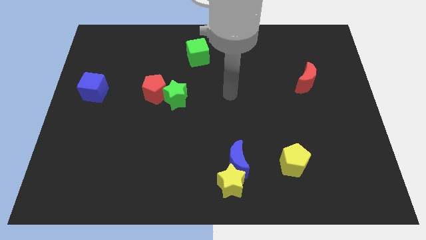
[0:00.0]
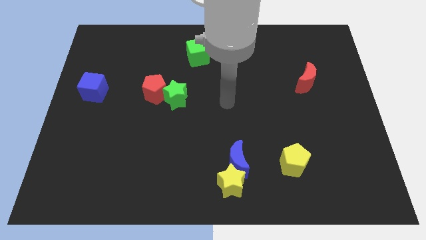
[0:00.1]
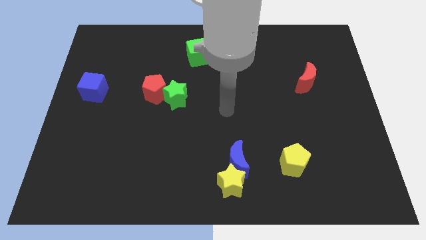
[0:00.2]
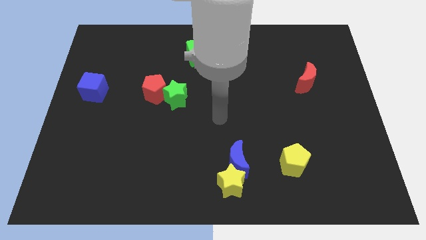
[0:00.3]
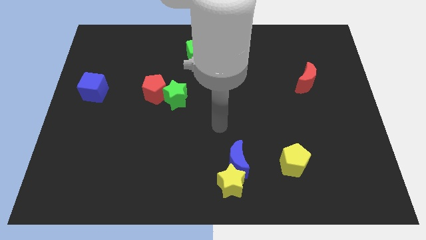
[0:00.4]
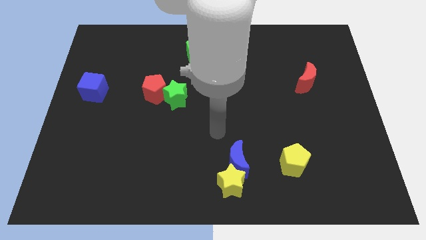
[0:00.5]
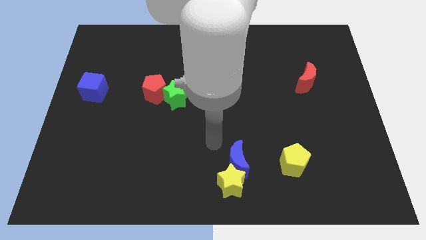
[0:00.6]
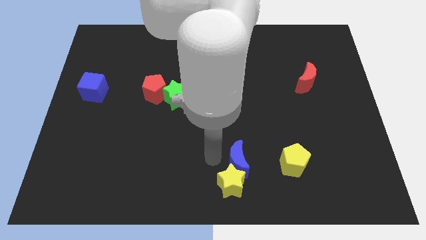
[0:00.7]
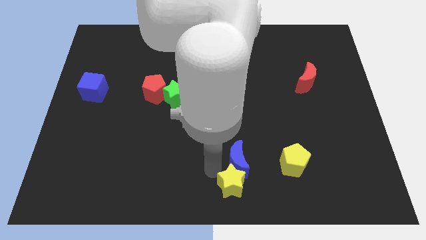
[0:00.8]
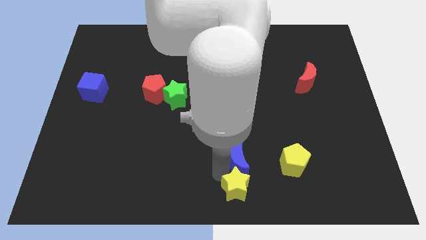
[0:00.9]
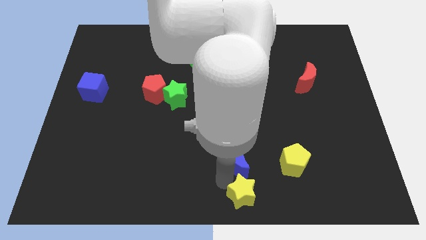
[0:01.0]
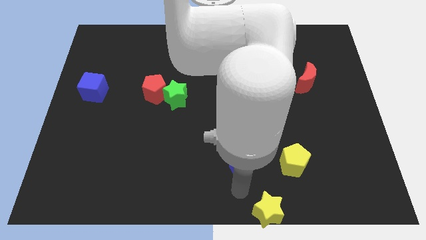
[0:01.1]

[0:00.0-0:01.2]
separate the blue moon from the yellow star

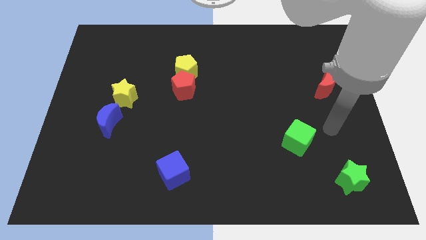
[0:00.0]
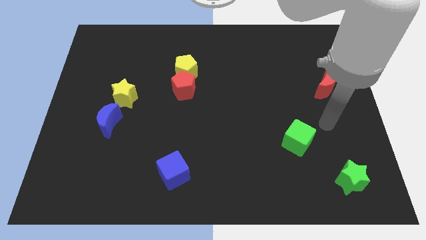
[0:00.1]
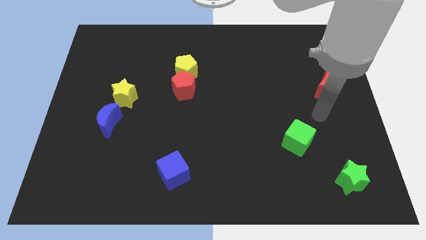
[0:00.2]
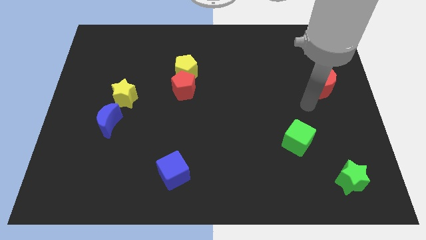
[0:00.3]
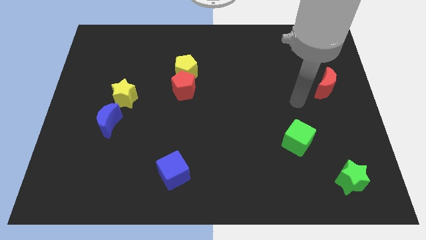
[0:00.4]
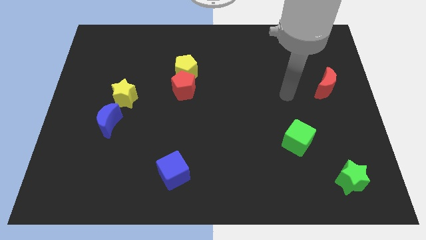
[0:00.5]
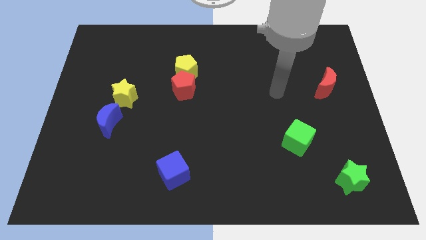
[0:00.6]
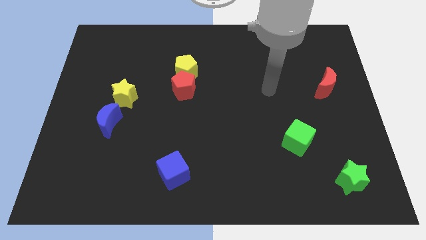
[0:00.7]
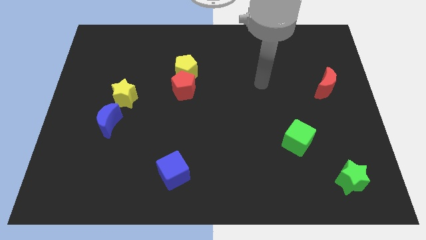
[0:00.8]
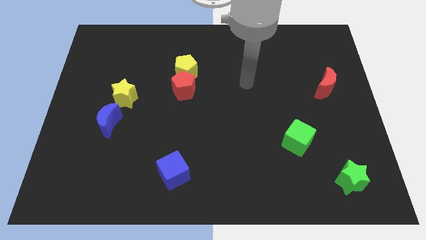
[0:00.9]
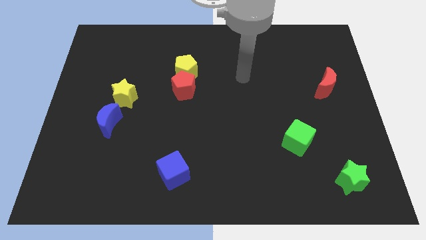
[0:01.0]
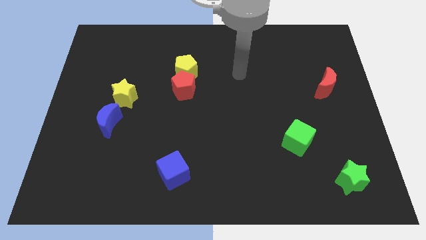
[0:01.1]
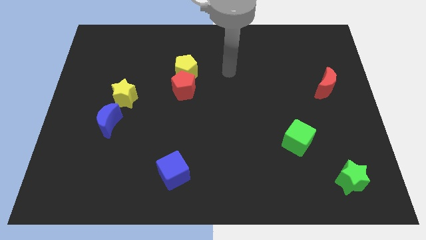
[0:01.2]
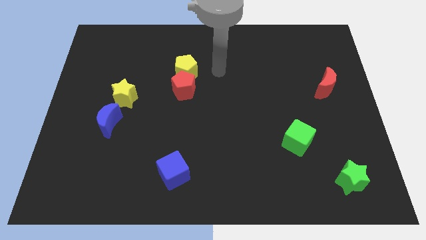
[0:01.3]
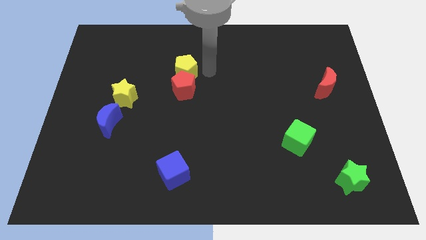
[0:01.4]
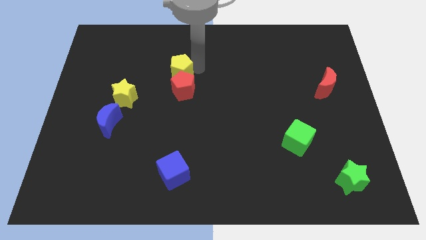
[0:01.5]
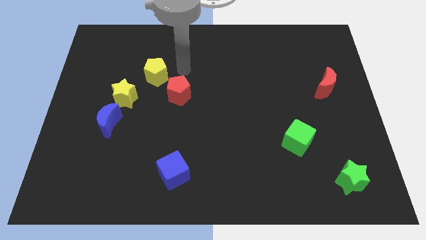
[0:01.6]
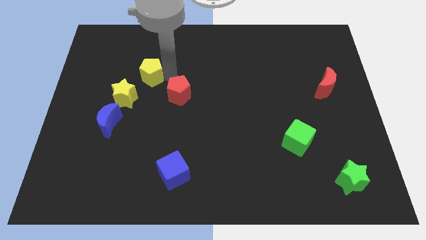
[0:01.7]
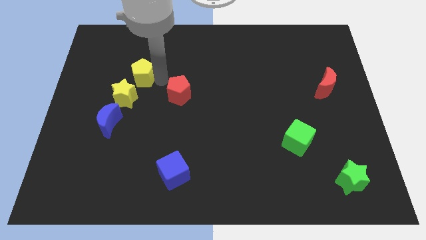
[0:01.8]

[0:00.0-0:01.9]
move the red pentagon away from the yellow pentagon

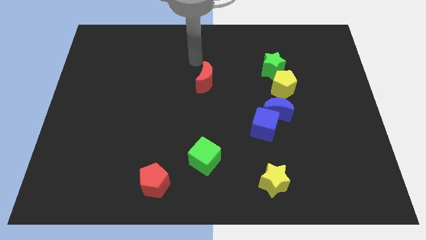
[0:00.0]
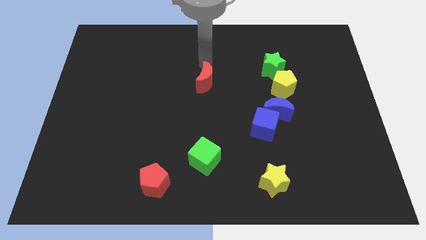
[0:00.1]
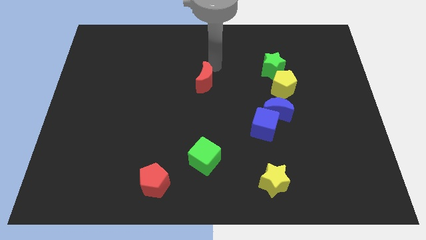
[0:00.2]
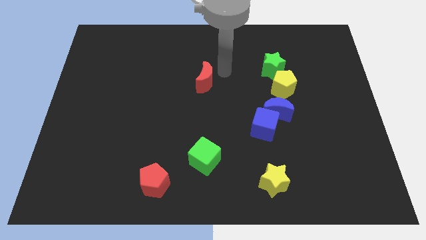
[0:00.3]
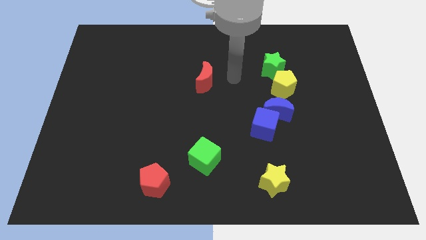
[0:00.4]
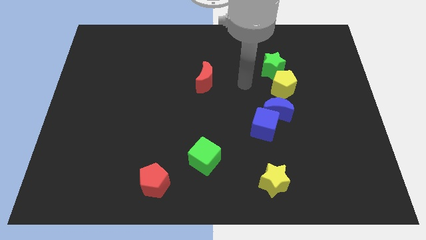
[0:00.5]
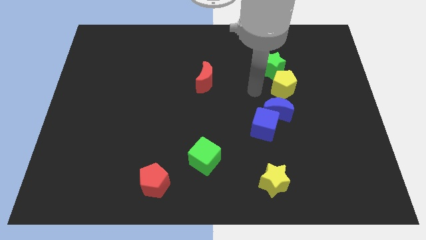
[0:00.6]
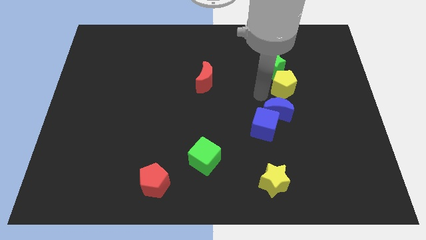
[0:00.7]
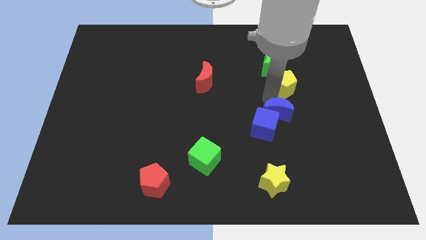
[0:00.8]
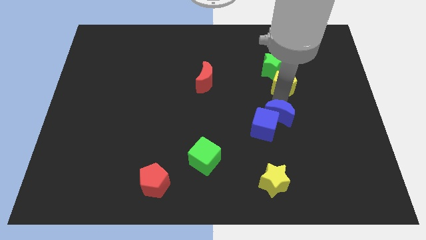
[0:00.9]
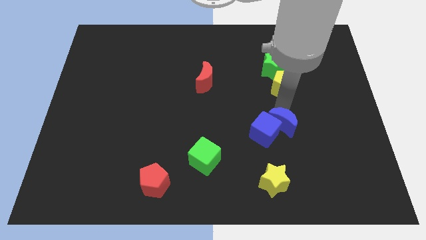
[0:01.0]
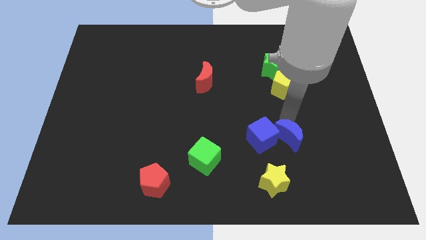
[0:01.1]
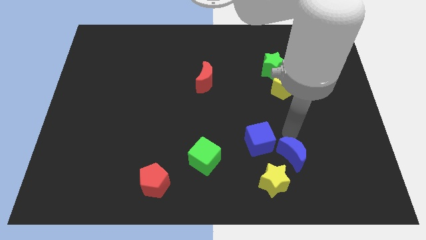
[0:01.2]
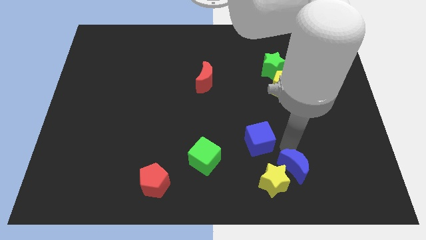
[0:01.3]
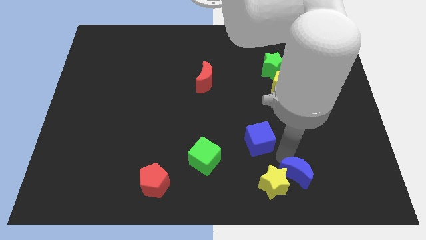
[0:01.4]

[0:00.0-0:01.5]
move the blue cube away from the blue moon

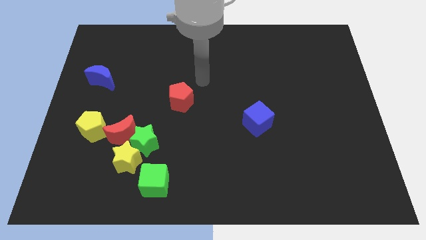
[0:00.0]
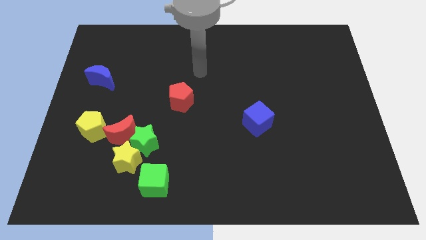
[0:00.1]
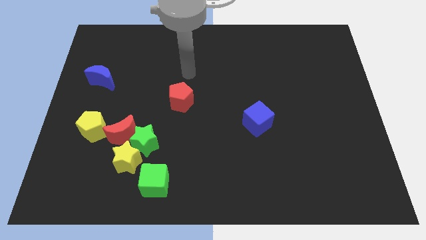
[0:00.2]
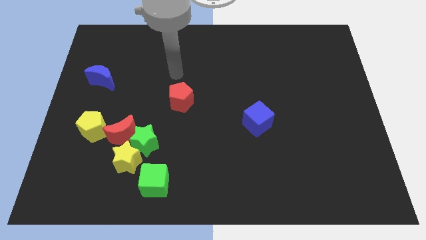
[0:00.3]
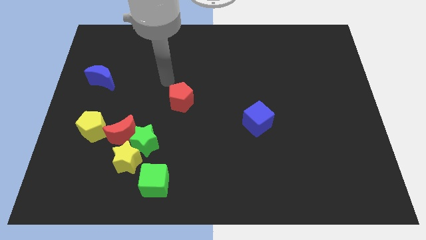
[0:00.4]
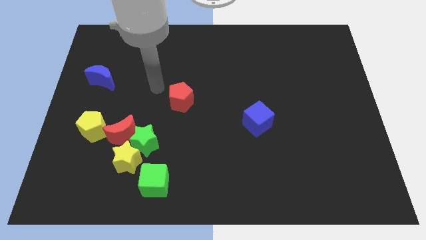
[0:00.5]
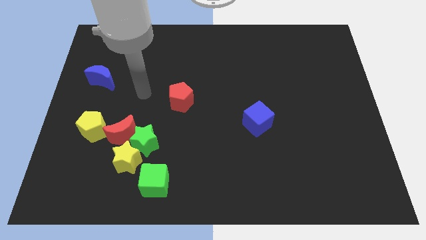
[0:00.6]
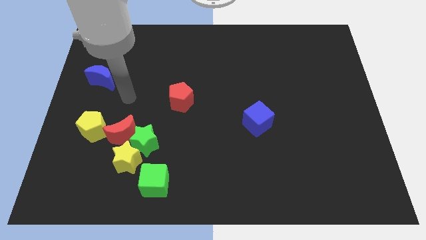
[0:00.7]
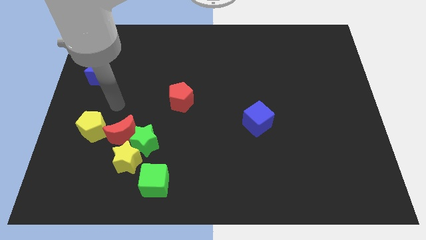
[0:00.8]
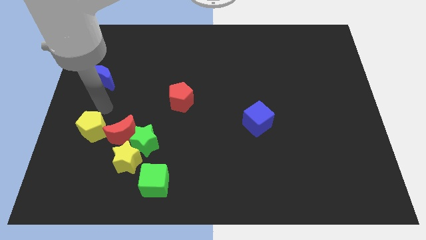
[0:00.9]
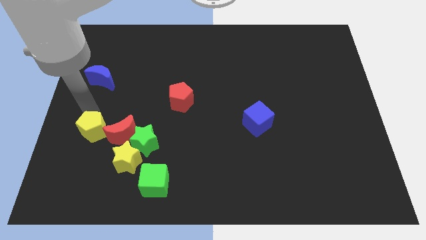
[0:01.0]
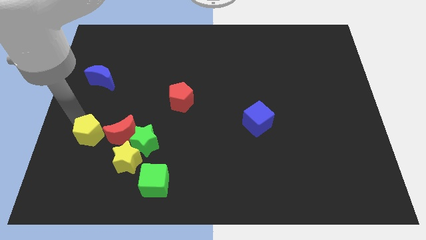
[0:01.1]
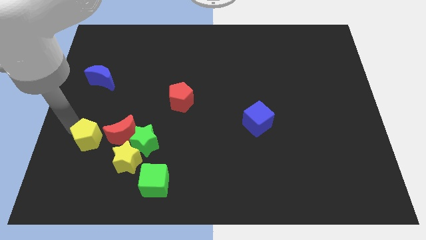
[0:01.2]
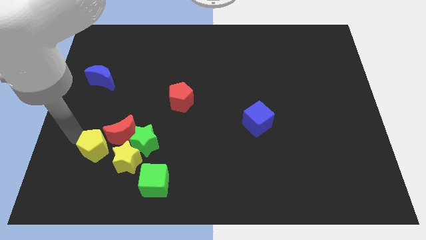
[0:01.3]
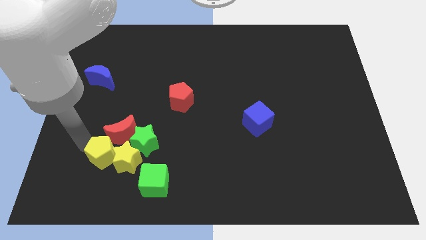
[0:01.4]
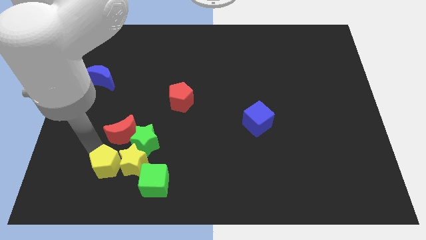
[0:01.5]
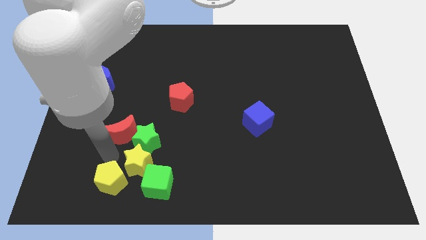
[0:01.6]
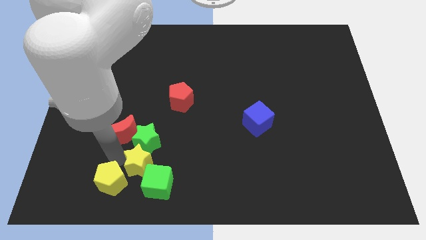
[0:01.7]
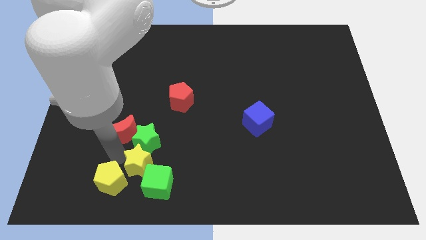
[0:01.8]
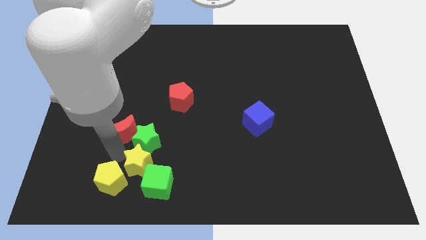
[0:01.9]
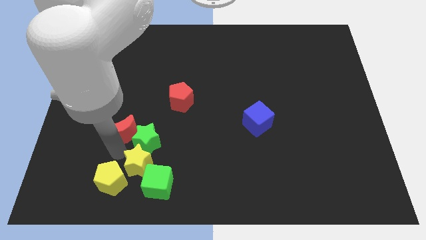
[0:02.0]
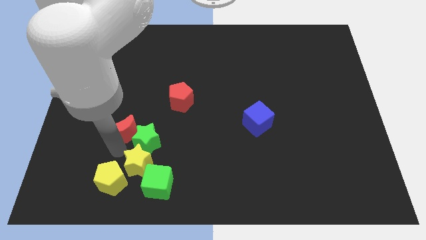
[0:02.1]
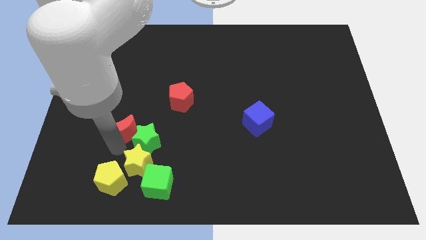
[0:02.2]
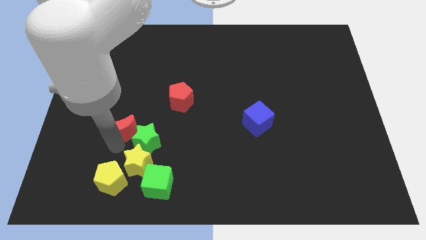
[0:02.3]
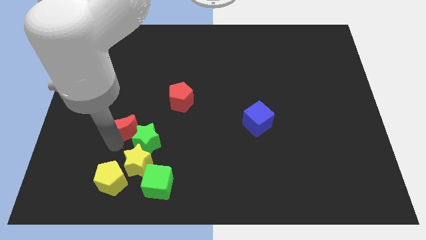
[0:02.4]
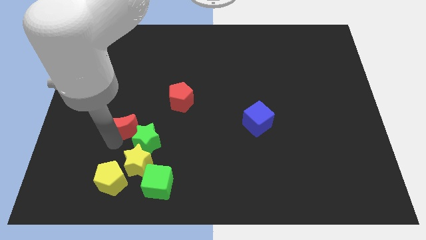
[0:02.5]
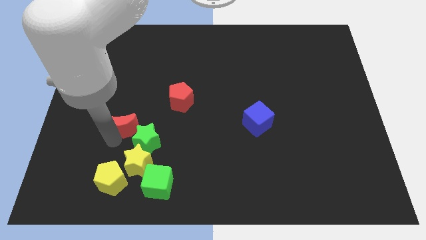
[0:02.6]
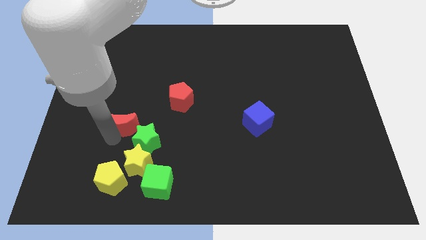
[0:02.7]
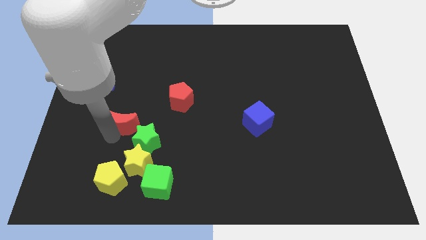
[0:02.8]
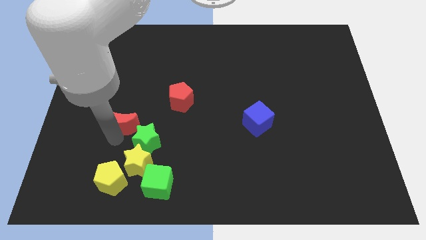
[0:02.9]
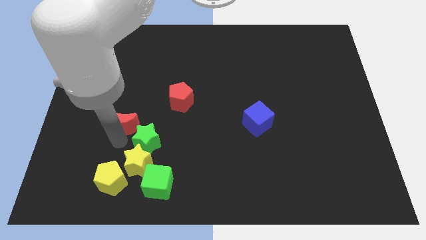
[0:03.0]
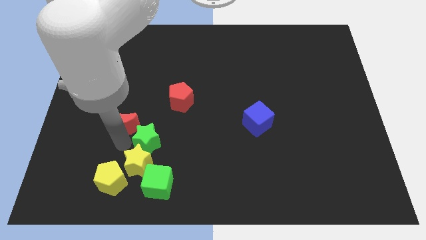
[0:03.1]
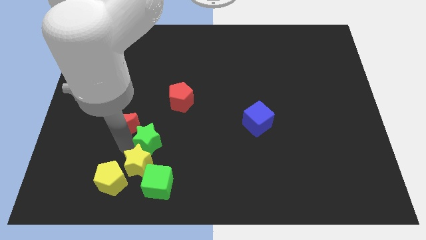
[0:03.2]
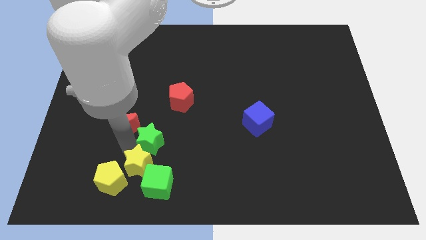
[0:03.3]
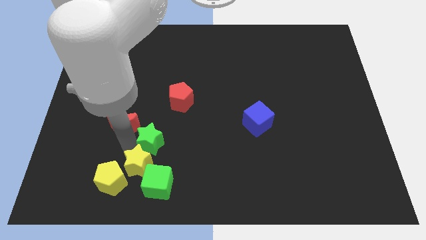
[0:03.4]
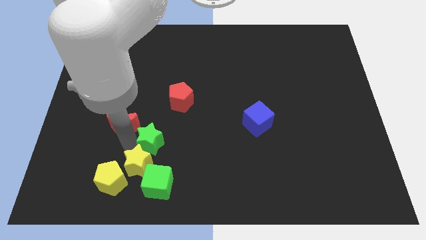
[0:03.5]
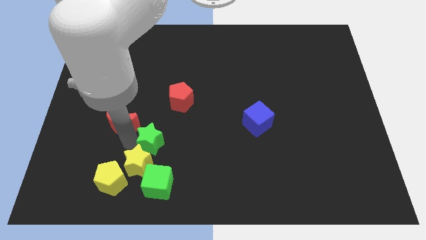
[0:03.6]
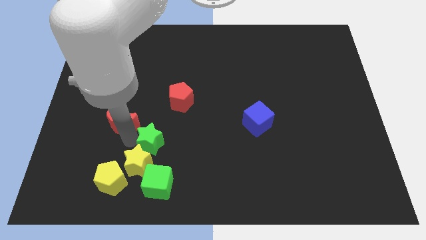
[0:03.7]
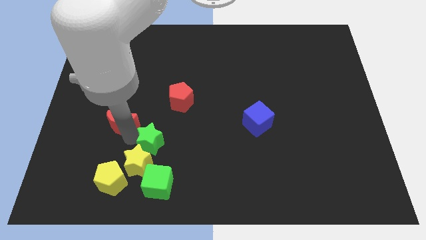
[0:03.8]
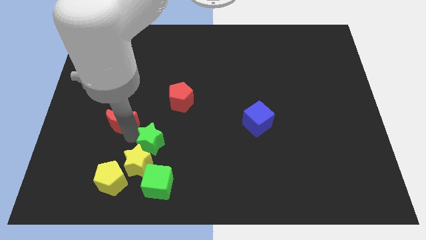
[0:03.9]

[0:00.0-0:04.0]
separate the red moon from the green star, yellow star, and yellow pentagon

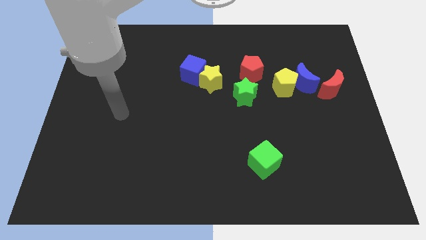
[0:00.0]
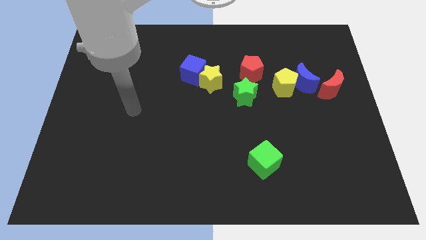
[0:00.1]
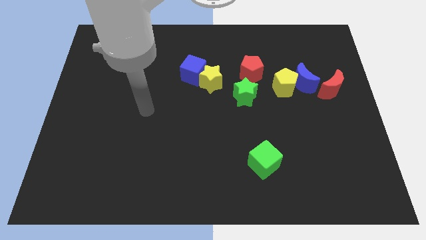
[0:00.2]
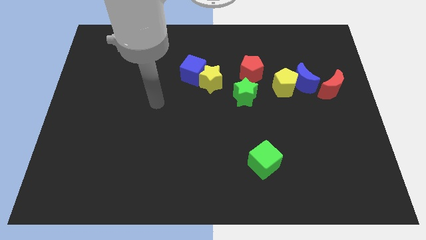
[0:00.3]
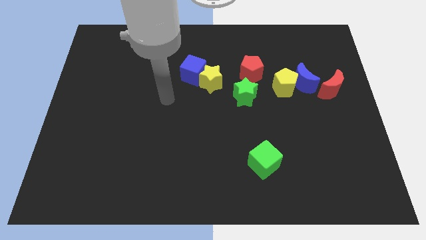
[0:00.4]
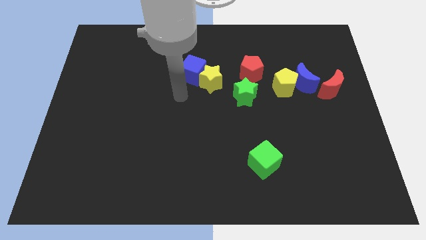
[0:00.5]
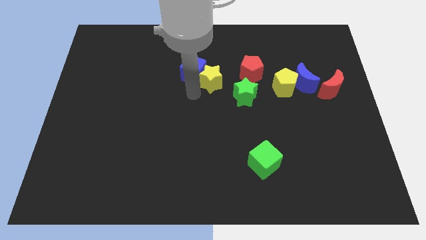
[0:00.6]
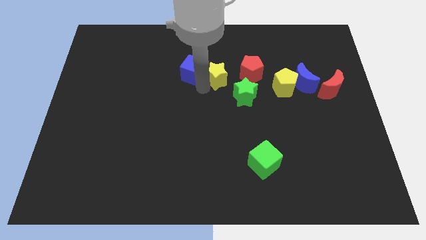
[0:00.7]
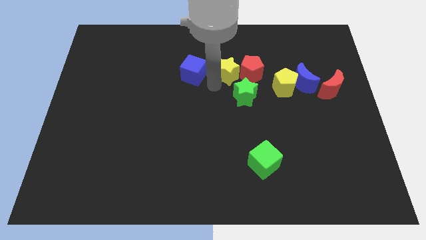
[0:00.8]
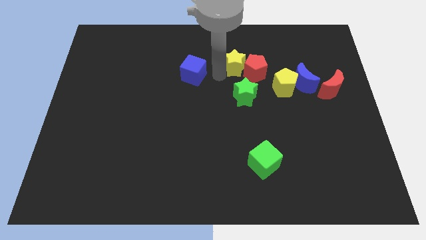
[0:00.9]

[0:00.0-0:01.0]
pull the blue cube apart from the yellow star
